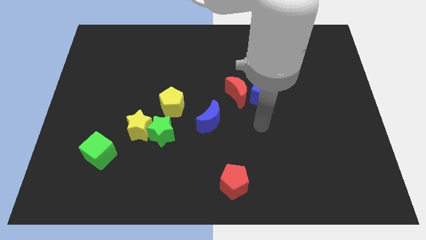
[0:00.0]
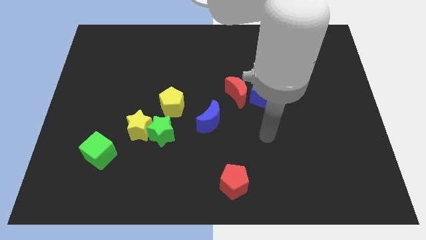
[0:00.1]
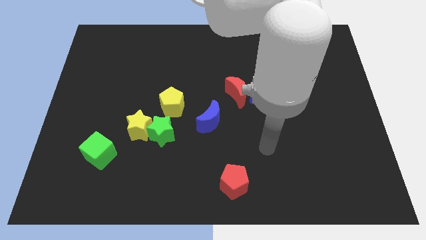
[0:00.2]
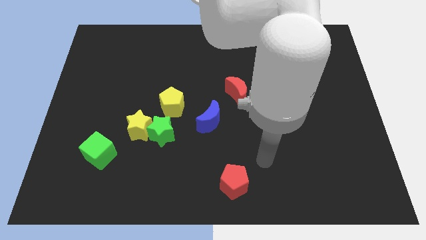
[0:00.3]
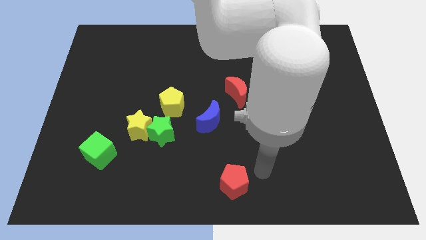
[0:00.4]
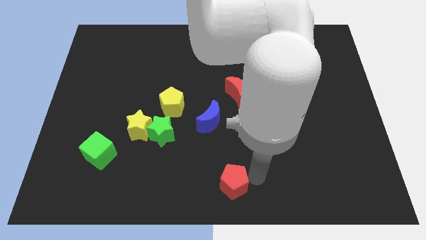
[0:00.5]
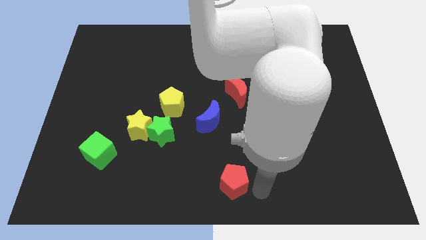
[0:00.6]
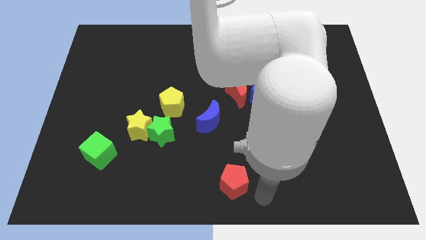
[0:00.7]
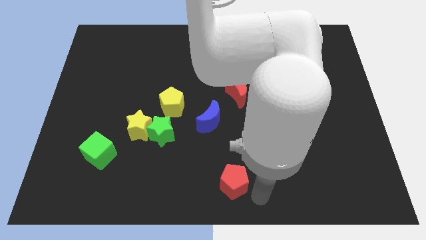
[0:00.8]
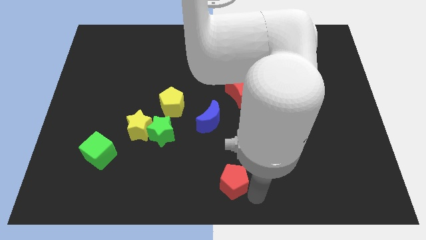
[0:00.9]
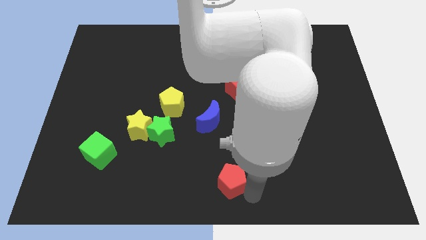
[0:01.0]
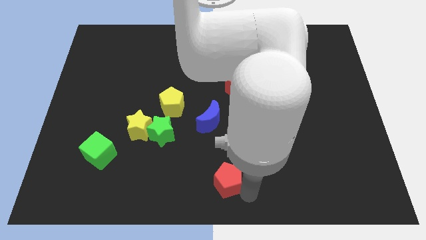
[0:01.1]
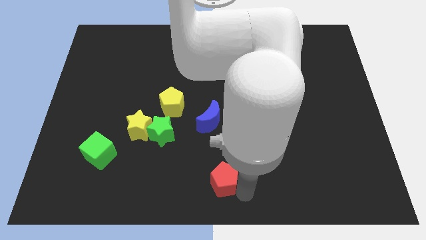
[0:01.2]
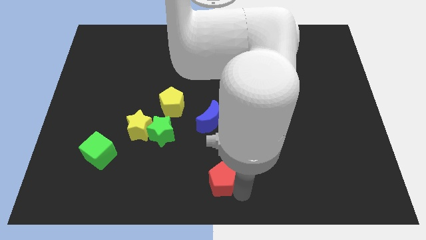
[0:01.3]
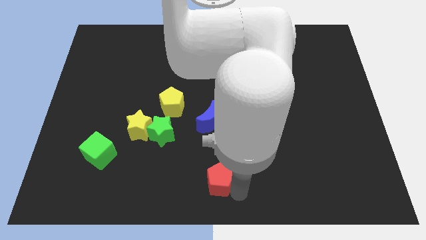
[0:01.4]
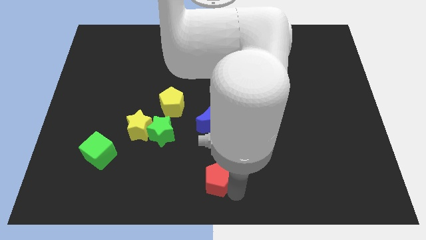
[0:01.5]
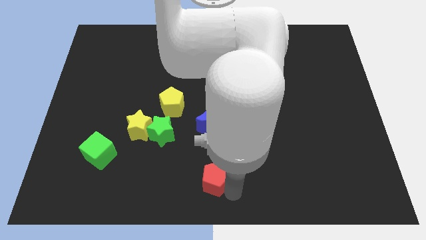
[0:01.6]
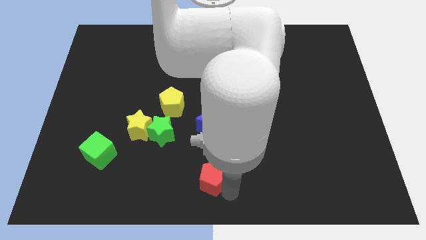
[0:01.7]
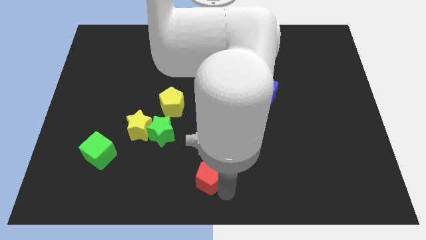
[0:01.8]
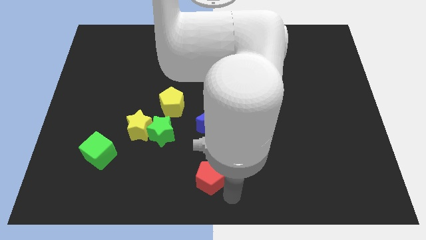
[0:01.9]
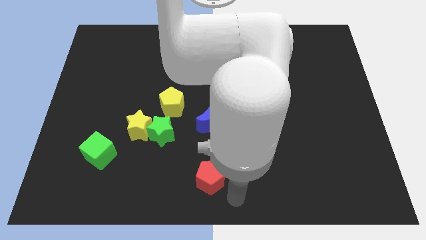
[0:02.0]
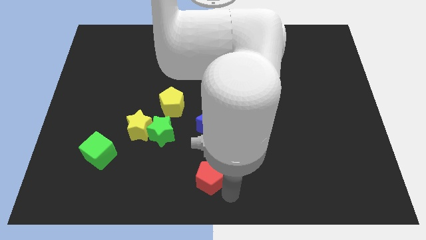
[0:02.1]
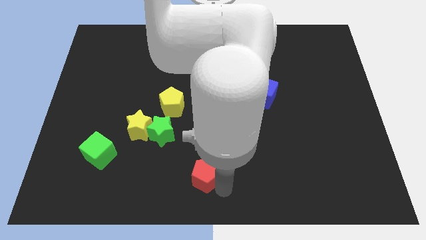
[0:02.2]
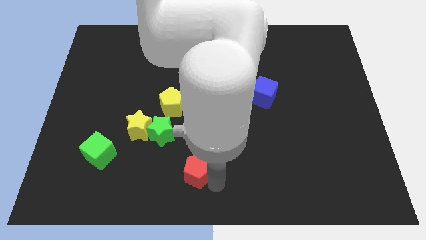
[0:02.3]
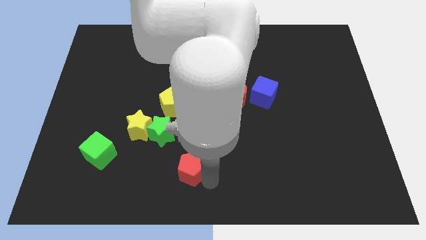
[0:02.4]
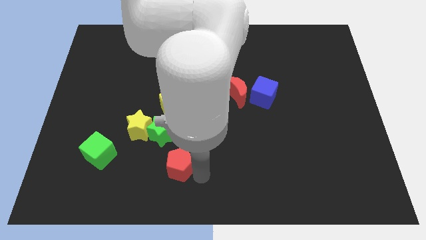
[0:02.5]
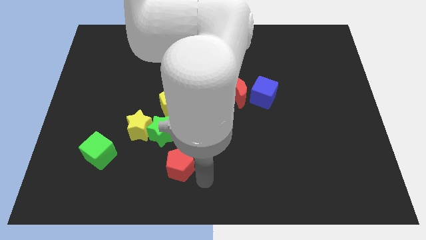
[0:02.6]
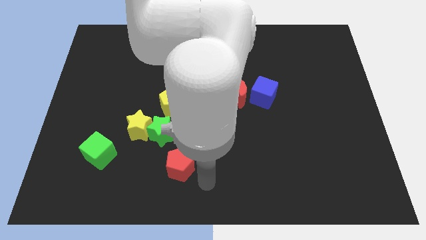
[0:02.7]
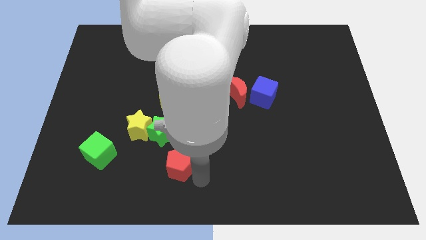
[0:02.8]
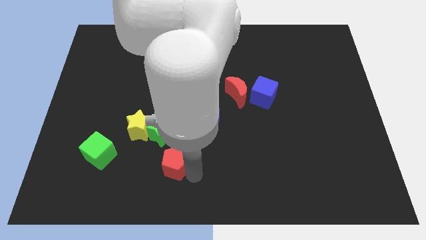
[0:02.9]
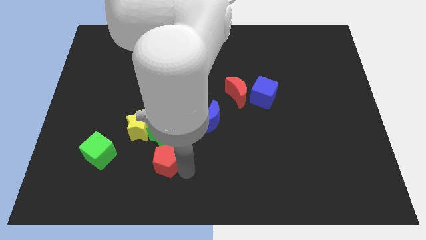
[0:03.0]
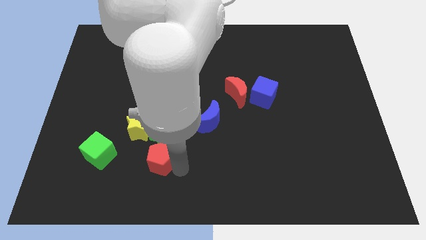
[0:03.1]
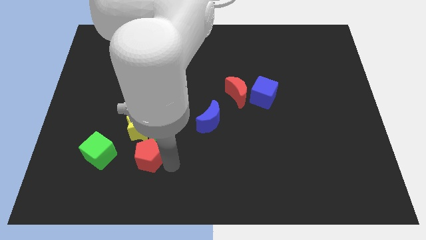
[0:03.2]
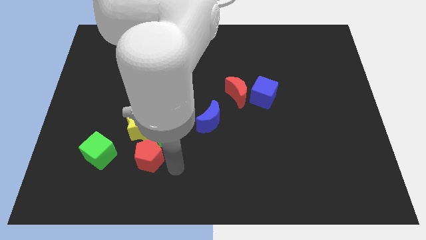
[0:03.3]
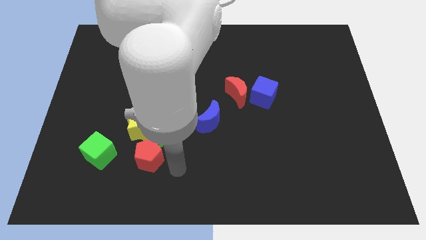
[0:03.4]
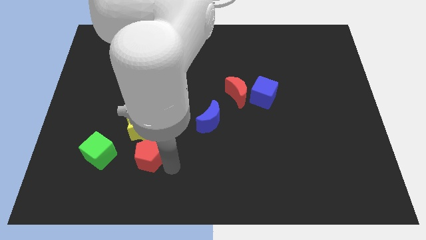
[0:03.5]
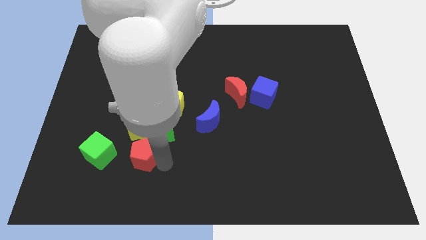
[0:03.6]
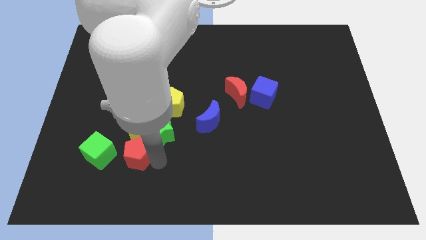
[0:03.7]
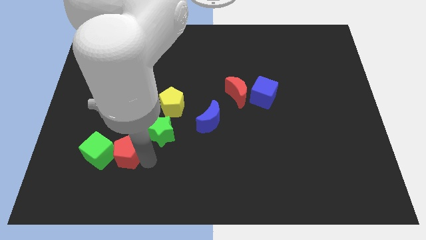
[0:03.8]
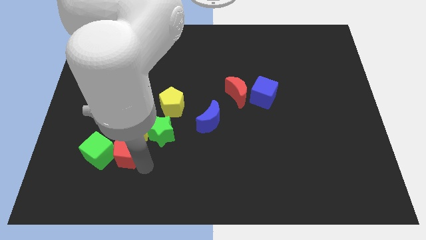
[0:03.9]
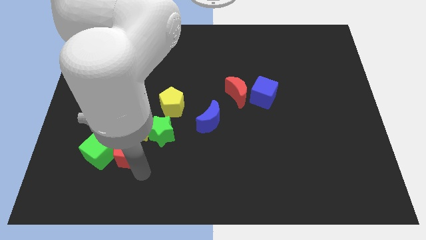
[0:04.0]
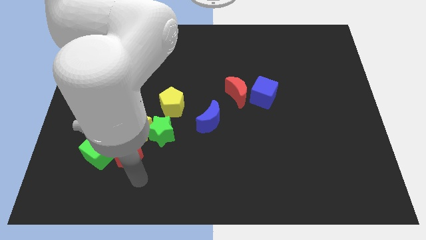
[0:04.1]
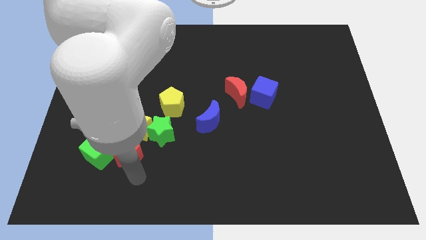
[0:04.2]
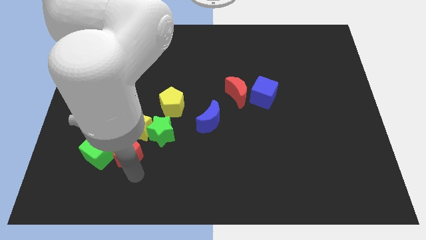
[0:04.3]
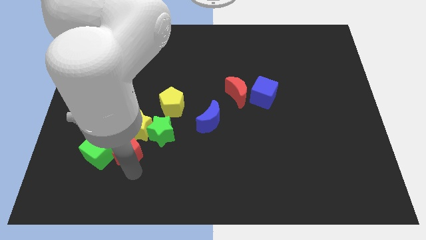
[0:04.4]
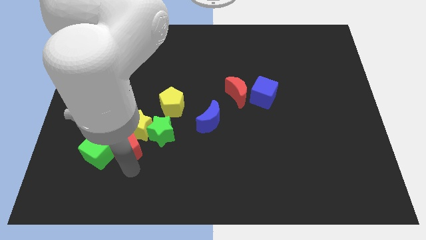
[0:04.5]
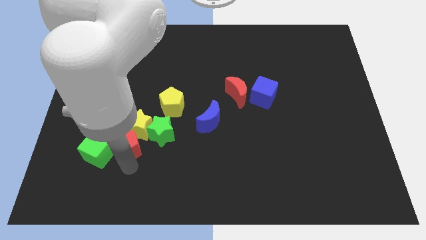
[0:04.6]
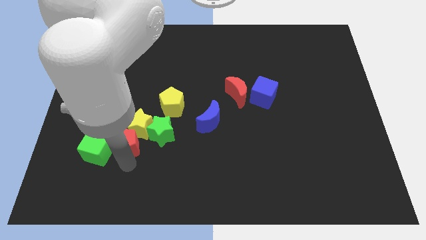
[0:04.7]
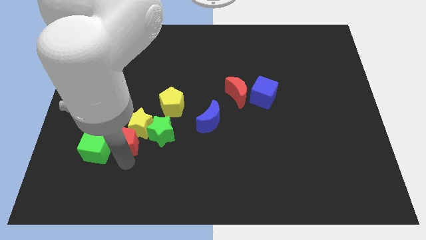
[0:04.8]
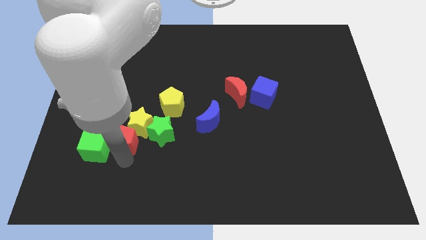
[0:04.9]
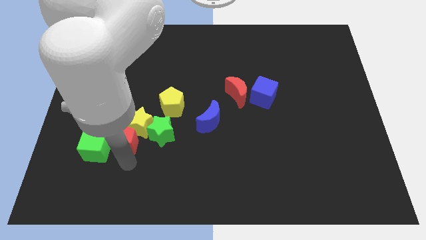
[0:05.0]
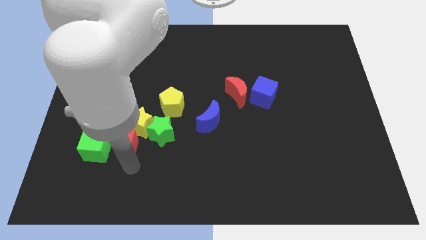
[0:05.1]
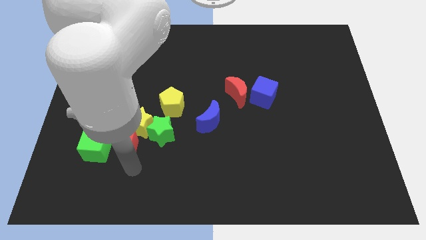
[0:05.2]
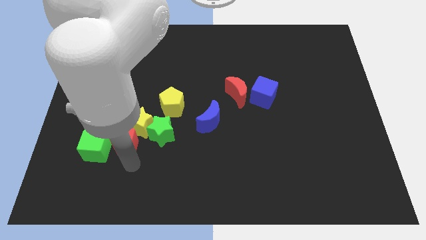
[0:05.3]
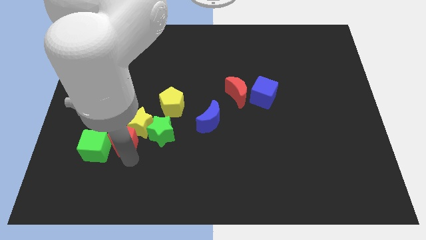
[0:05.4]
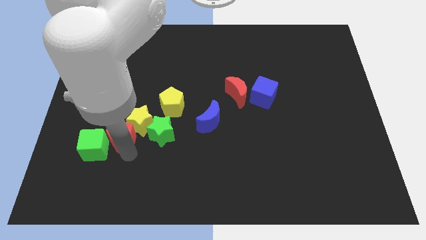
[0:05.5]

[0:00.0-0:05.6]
slide the red pentagon upwards and left diagonally

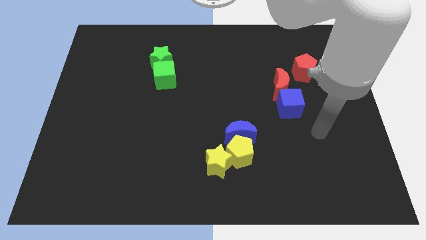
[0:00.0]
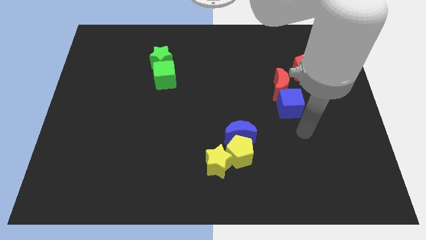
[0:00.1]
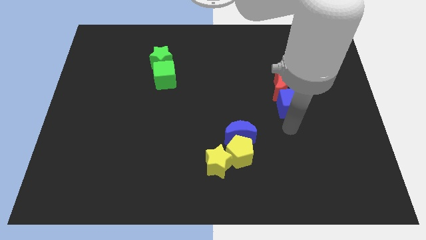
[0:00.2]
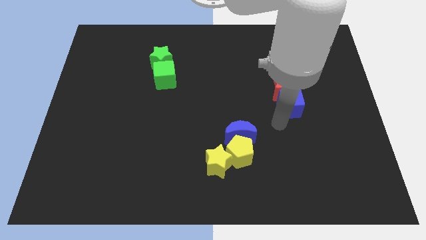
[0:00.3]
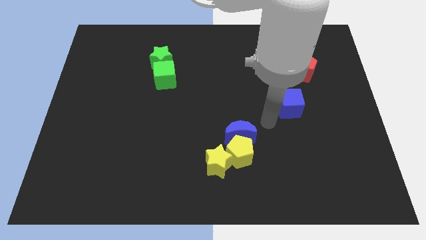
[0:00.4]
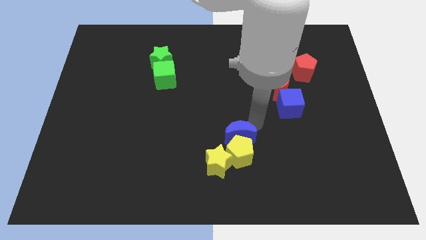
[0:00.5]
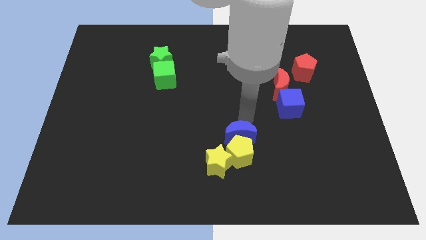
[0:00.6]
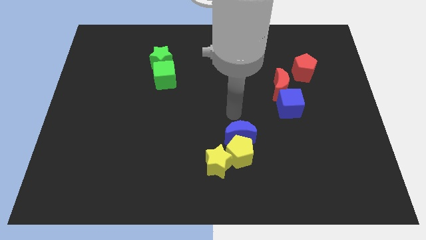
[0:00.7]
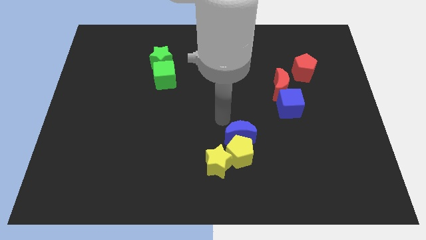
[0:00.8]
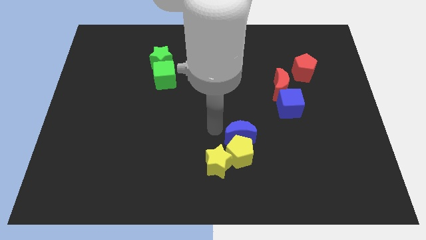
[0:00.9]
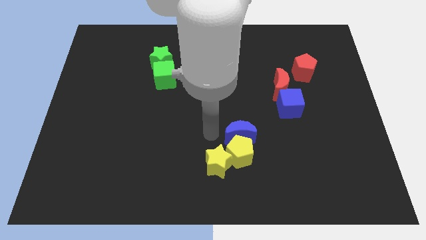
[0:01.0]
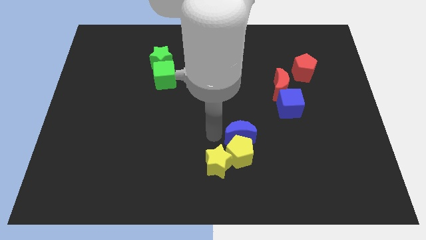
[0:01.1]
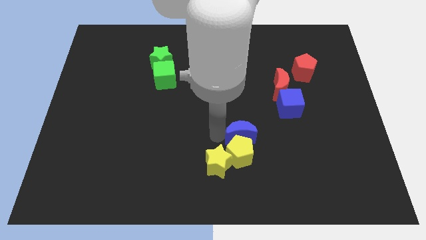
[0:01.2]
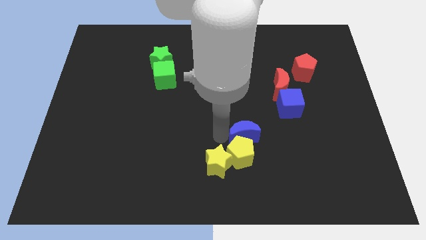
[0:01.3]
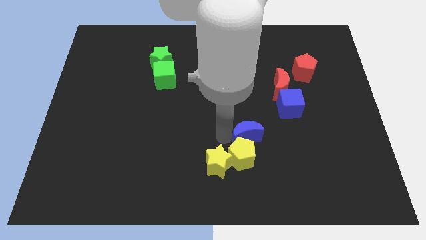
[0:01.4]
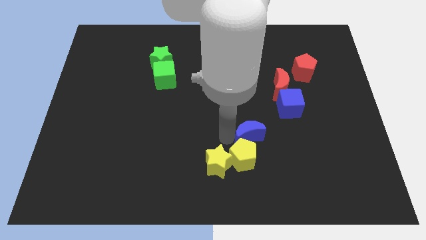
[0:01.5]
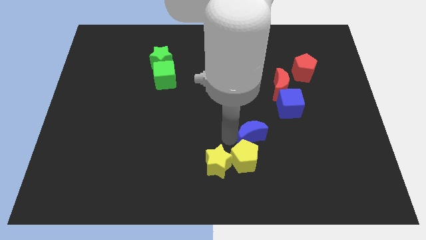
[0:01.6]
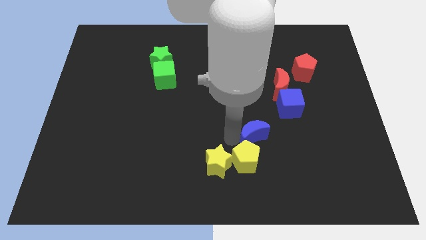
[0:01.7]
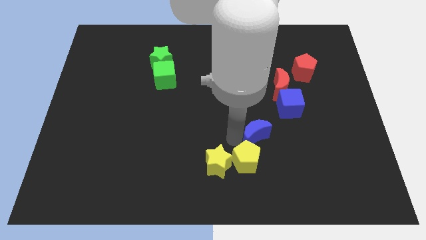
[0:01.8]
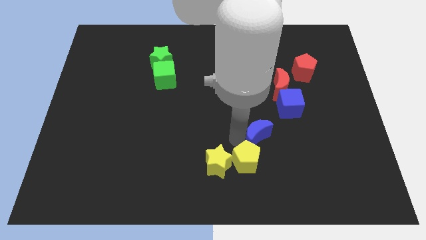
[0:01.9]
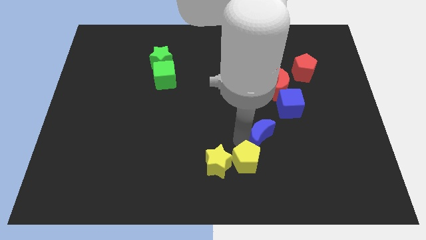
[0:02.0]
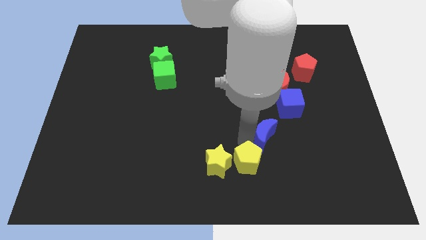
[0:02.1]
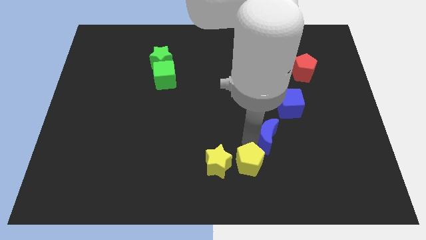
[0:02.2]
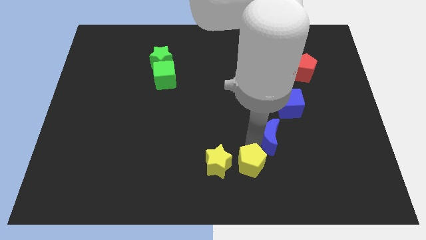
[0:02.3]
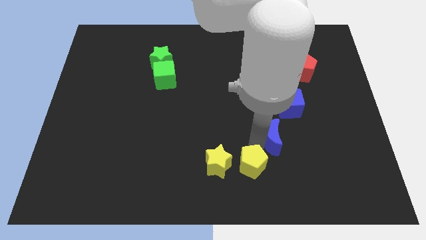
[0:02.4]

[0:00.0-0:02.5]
move the blue moon slightly right
